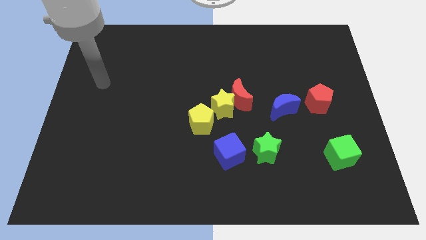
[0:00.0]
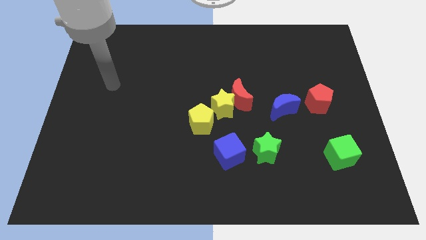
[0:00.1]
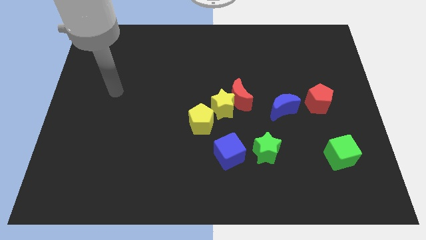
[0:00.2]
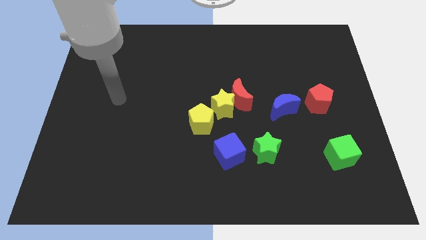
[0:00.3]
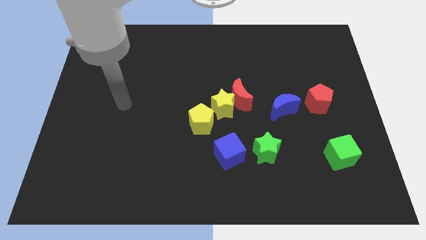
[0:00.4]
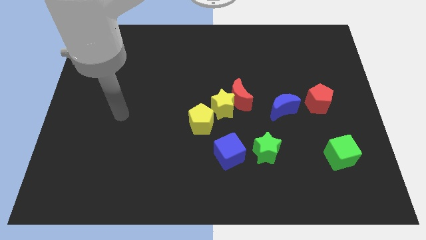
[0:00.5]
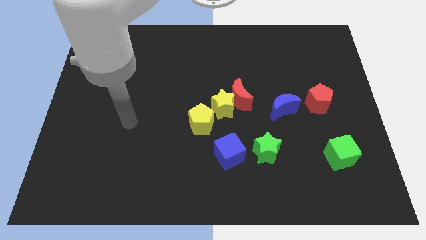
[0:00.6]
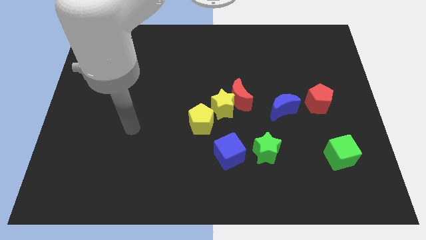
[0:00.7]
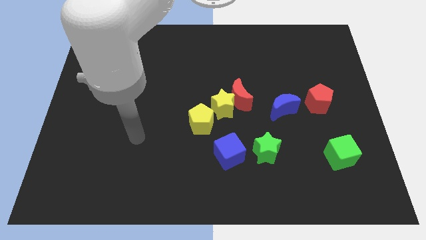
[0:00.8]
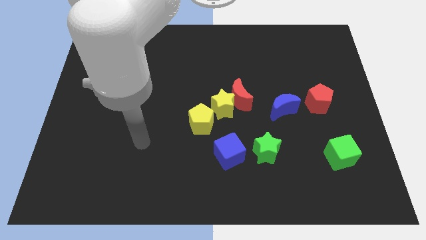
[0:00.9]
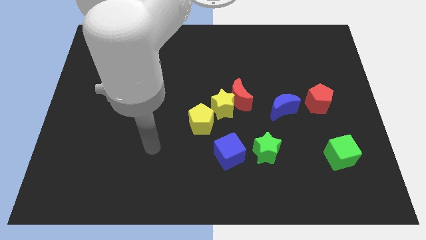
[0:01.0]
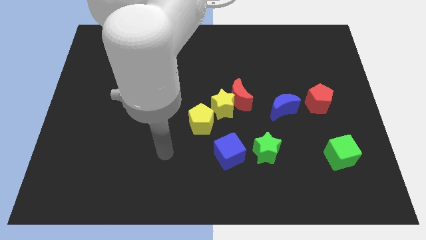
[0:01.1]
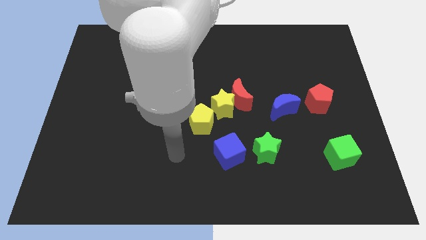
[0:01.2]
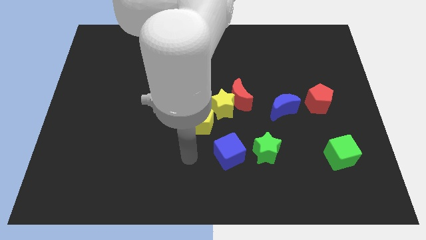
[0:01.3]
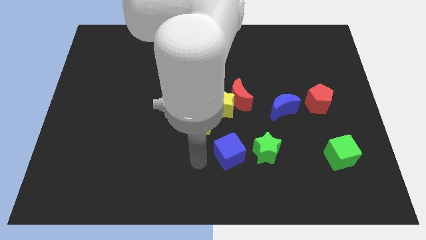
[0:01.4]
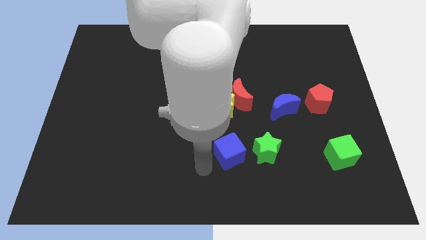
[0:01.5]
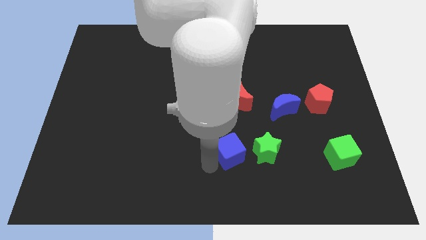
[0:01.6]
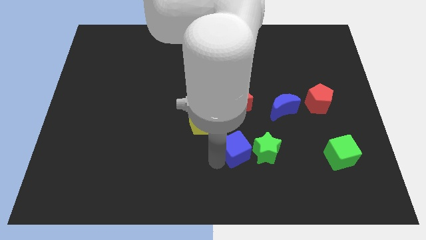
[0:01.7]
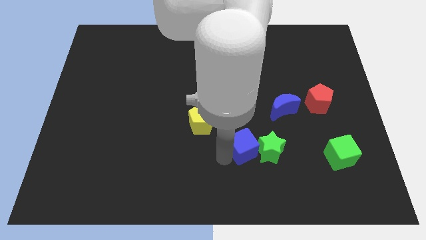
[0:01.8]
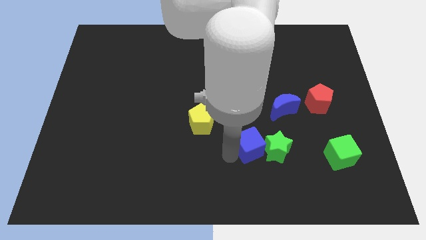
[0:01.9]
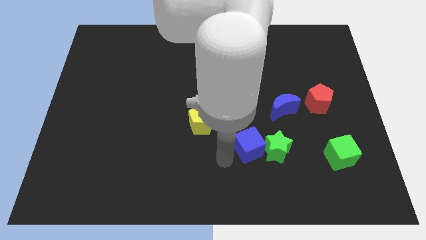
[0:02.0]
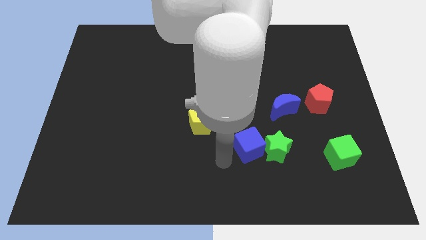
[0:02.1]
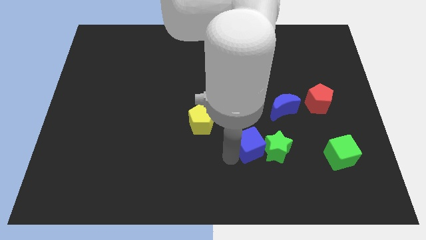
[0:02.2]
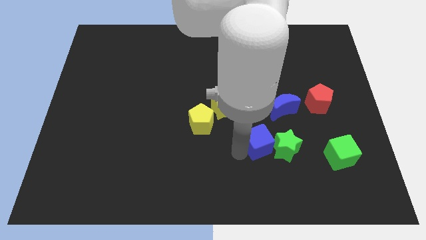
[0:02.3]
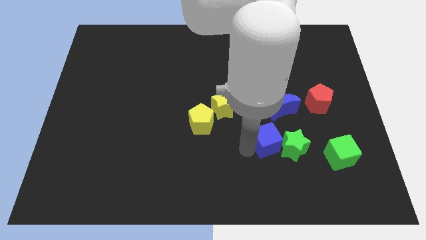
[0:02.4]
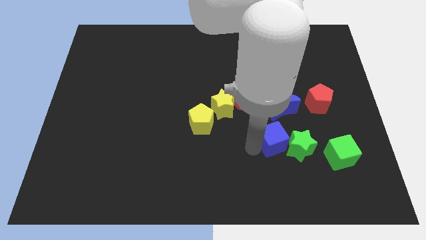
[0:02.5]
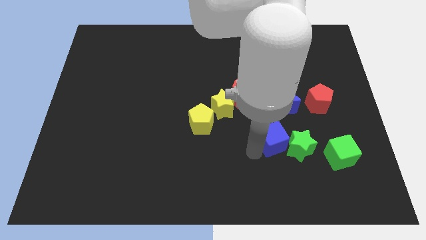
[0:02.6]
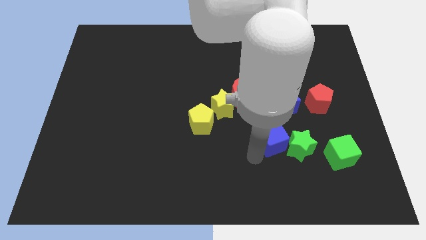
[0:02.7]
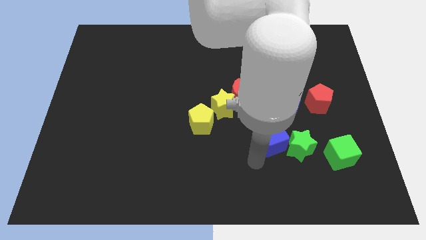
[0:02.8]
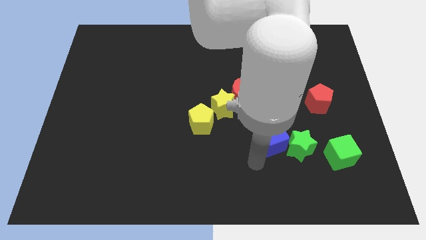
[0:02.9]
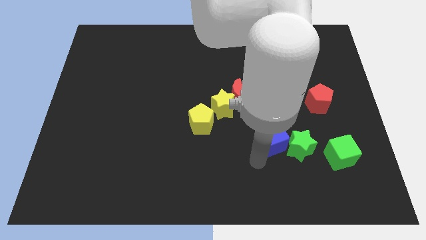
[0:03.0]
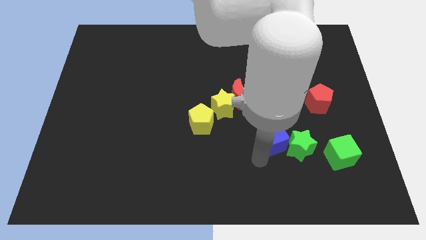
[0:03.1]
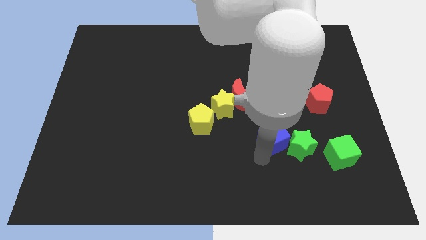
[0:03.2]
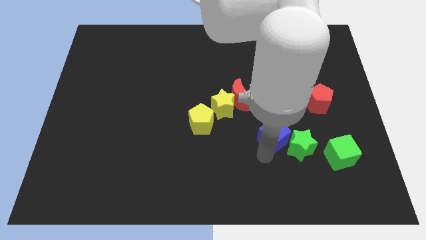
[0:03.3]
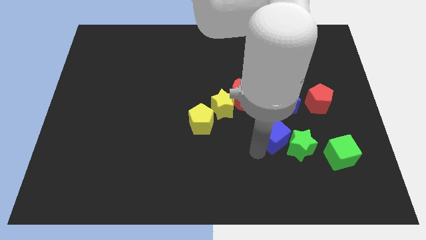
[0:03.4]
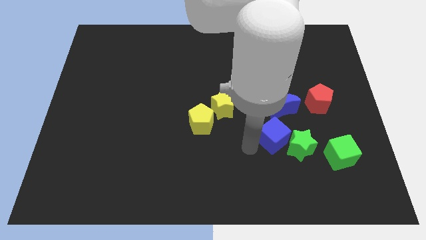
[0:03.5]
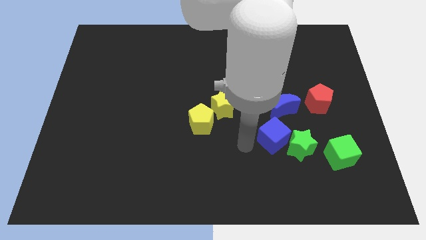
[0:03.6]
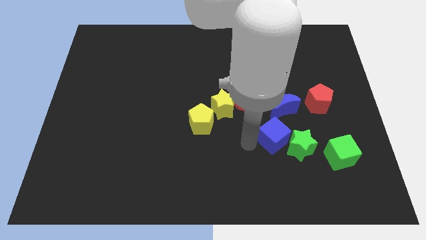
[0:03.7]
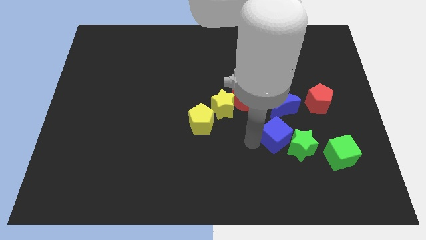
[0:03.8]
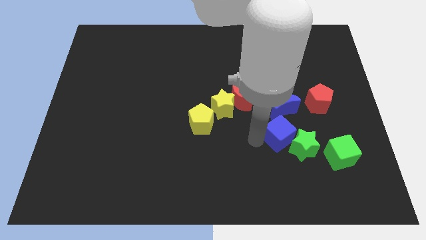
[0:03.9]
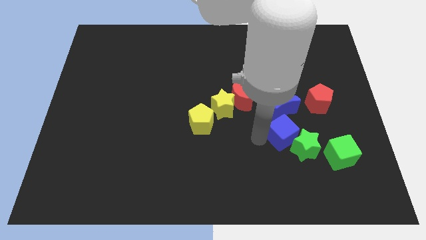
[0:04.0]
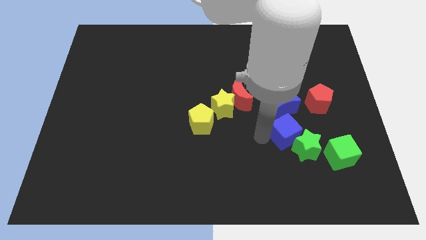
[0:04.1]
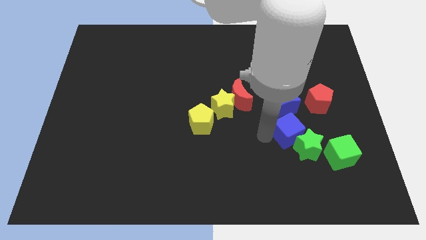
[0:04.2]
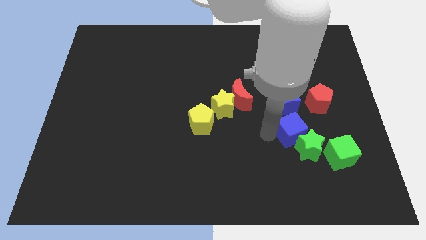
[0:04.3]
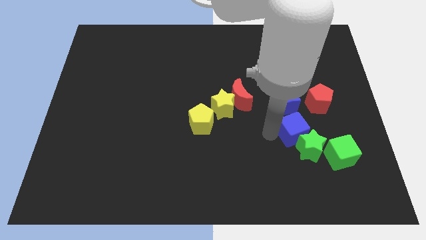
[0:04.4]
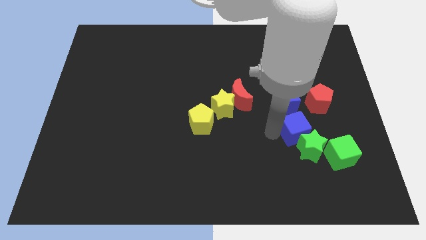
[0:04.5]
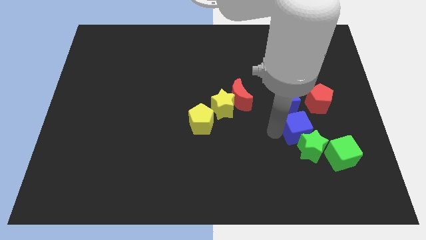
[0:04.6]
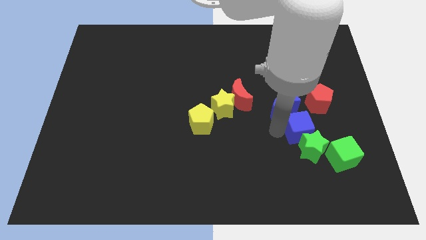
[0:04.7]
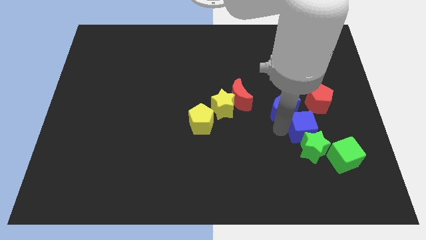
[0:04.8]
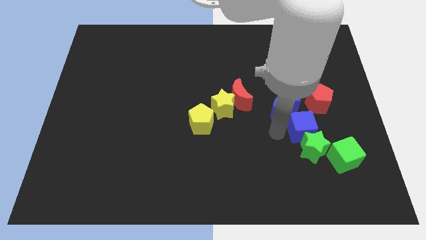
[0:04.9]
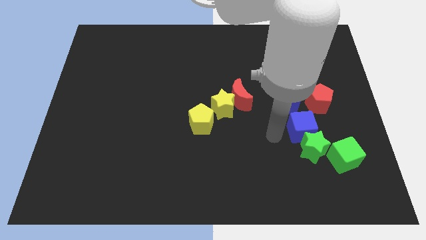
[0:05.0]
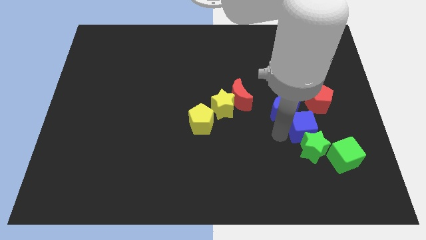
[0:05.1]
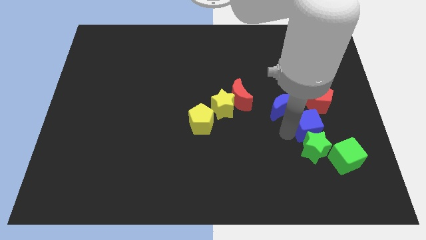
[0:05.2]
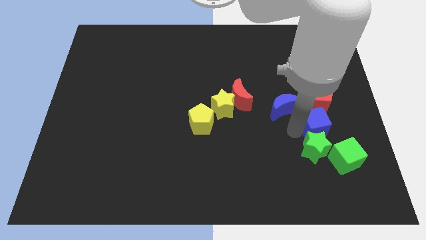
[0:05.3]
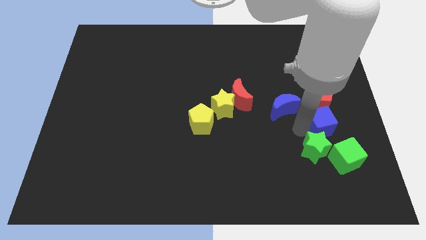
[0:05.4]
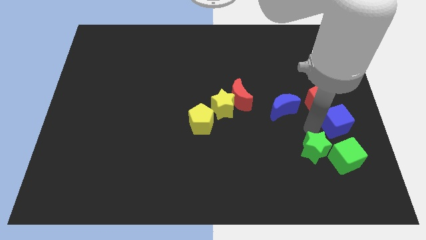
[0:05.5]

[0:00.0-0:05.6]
put the blue cube to the right side of the board
